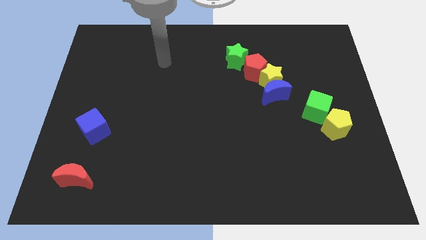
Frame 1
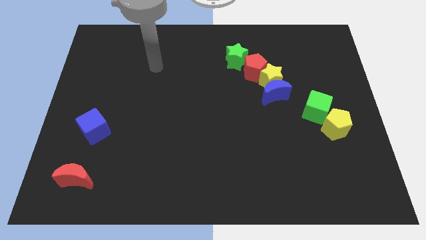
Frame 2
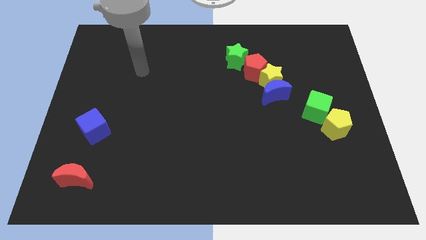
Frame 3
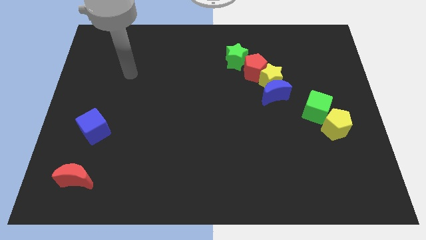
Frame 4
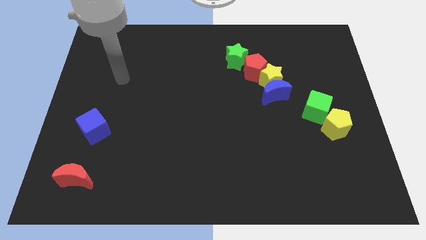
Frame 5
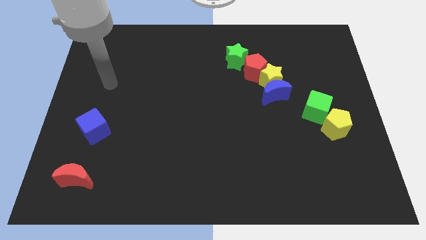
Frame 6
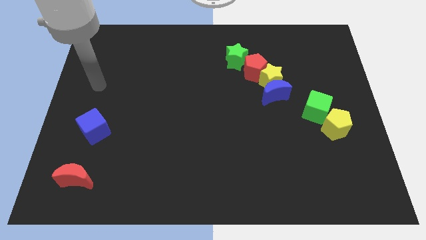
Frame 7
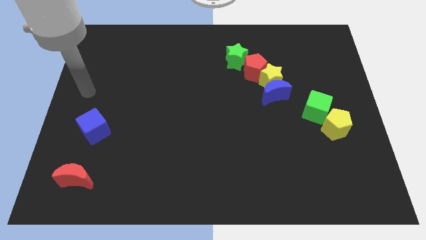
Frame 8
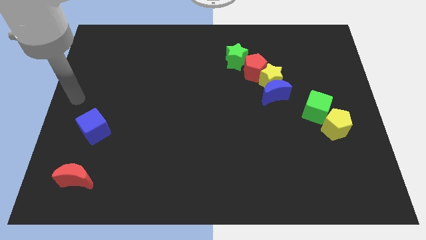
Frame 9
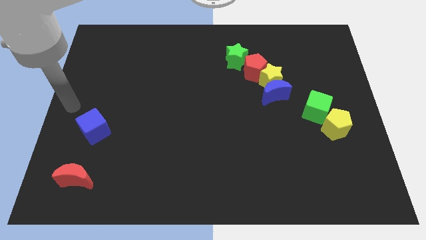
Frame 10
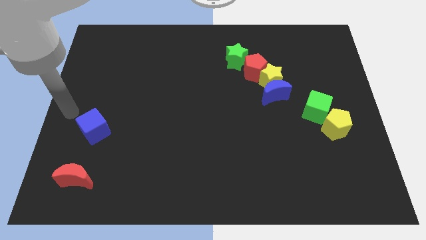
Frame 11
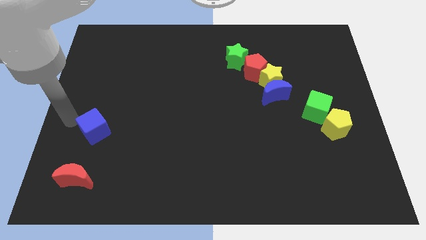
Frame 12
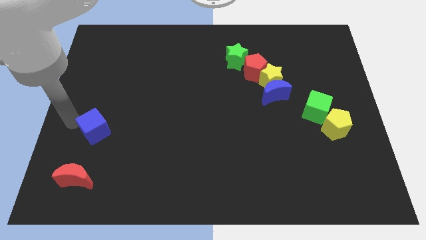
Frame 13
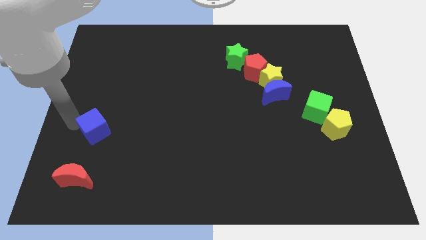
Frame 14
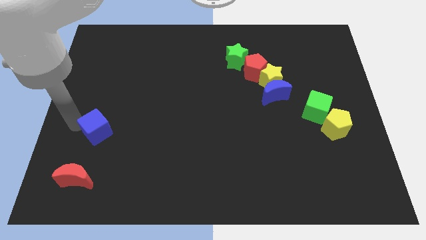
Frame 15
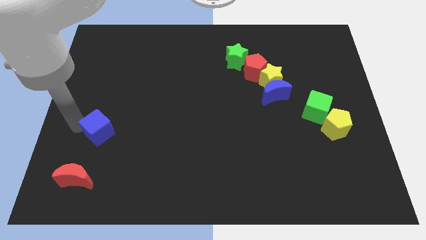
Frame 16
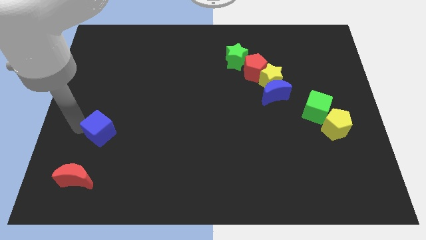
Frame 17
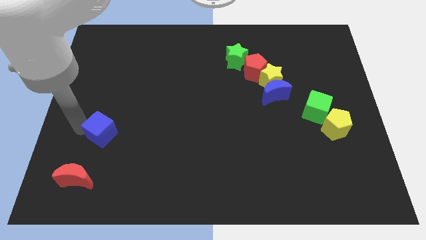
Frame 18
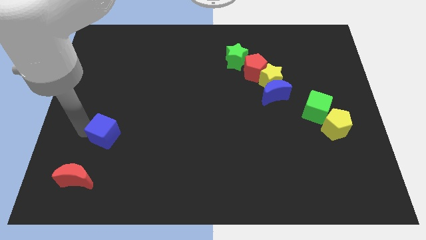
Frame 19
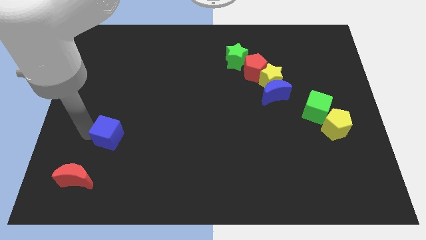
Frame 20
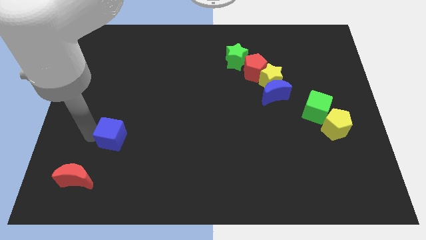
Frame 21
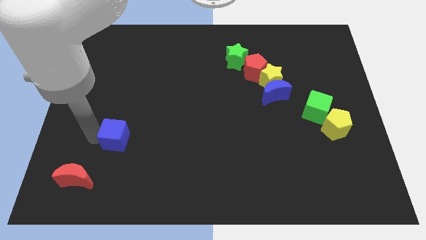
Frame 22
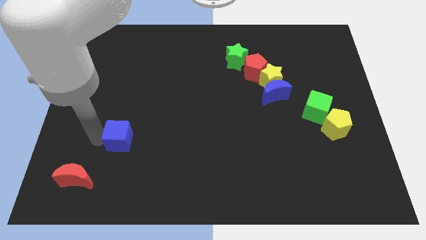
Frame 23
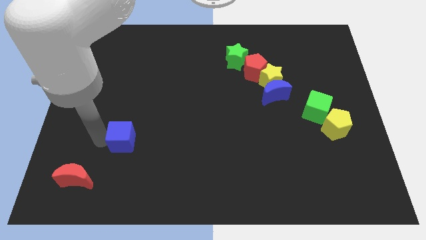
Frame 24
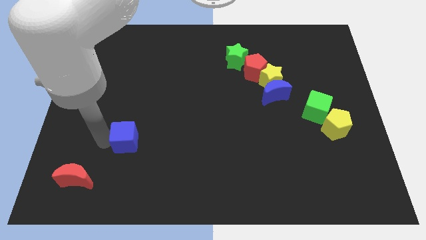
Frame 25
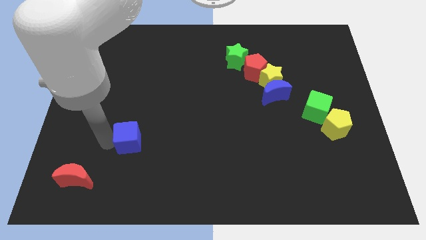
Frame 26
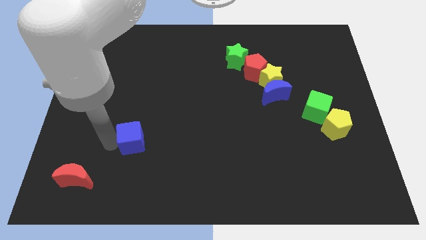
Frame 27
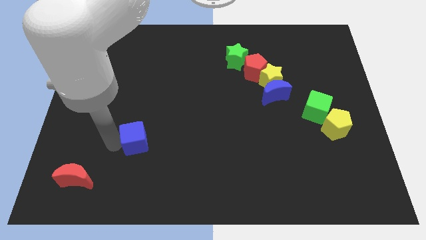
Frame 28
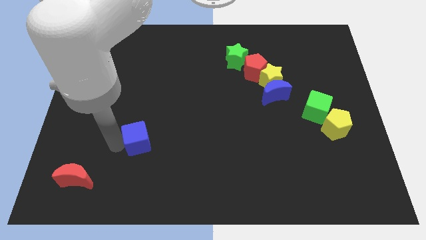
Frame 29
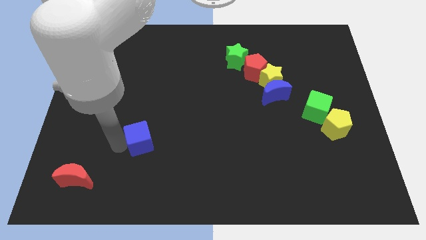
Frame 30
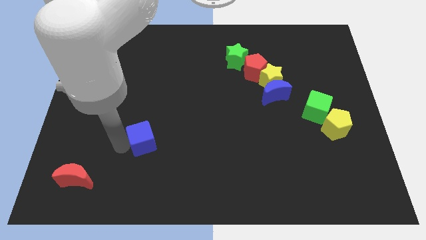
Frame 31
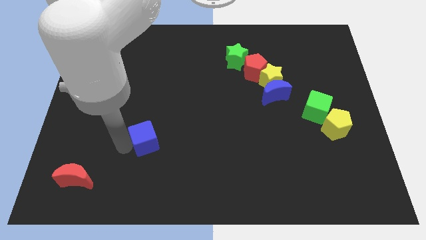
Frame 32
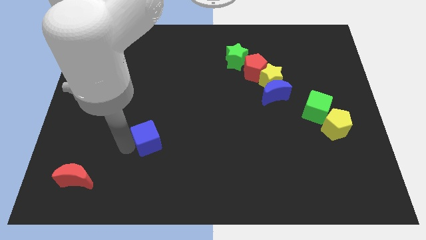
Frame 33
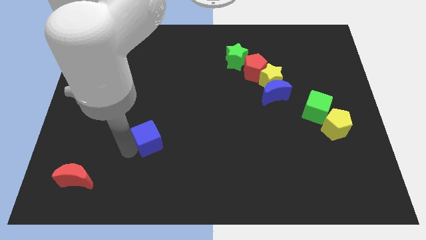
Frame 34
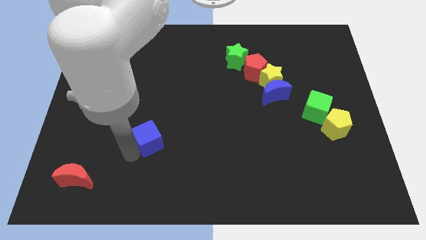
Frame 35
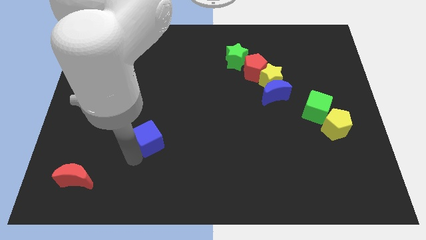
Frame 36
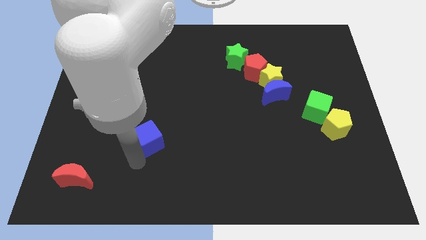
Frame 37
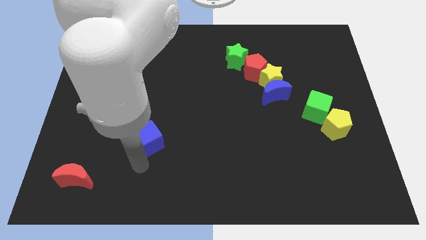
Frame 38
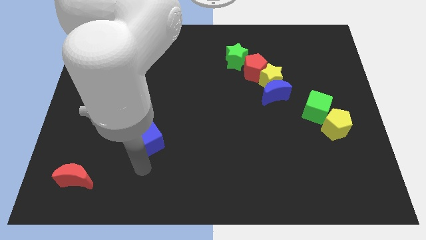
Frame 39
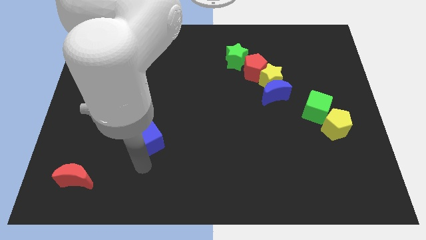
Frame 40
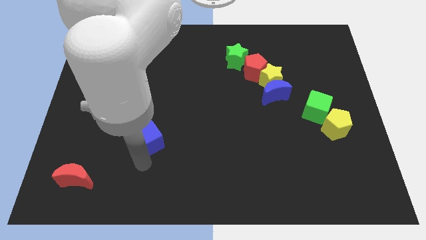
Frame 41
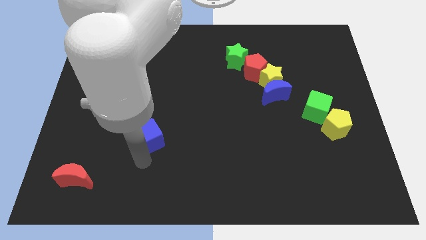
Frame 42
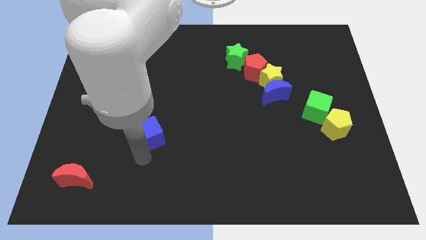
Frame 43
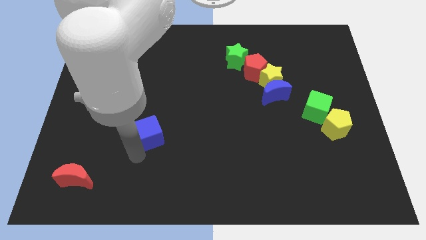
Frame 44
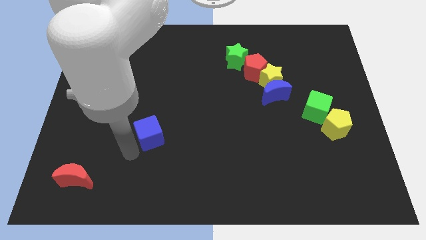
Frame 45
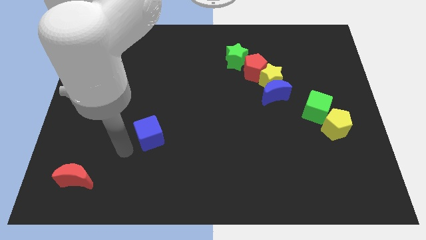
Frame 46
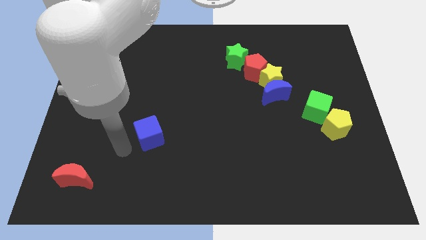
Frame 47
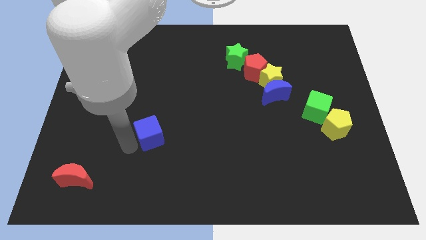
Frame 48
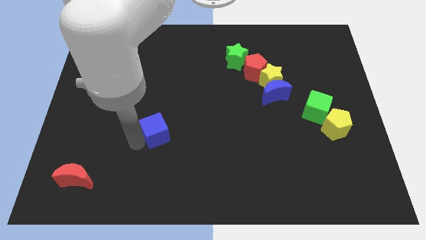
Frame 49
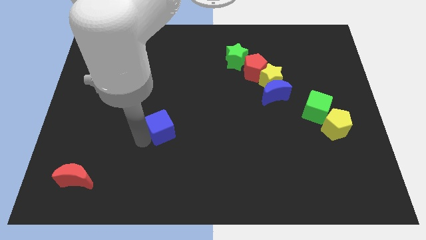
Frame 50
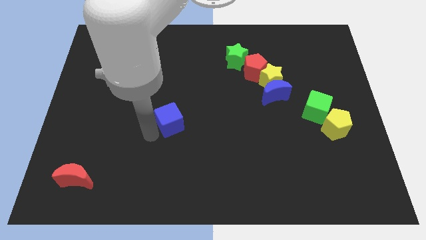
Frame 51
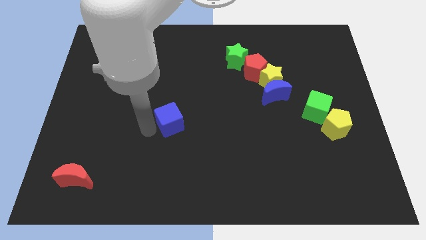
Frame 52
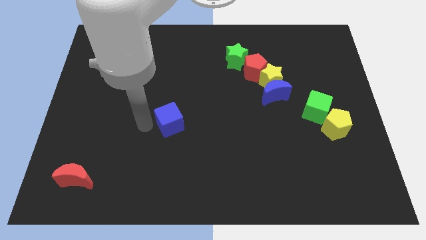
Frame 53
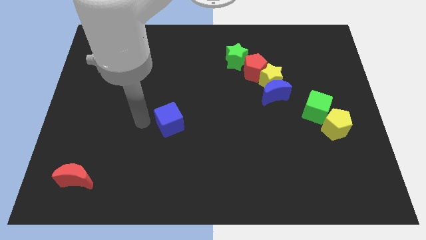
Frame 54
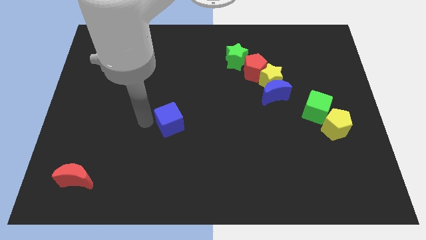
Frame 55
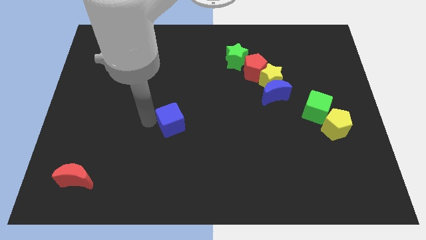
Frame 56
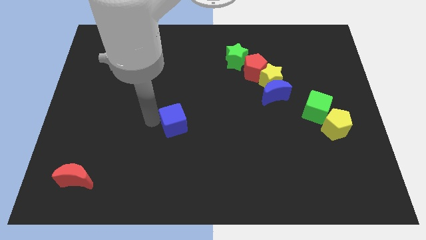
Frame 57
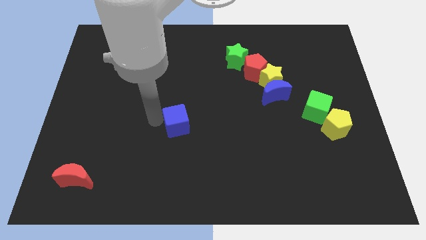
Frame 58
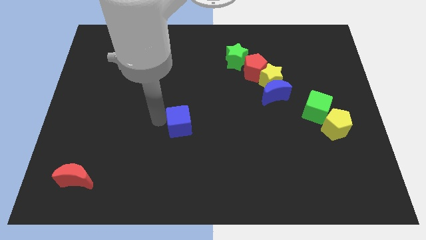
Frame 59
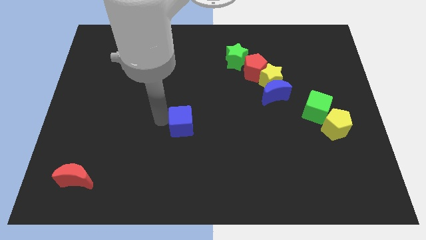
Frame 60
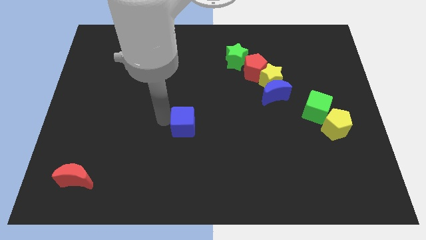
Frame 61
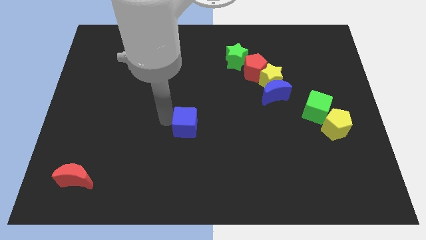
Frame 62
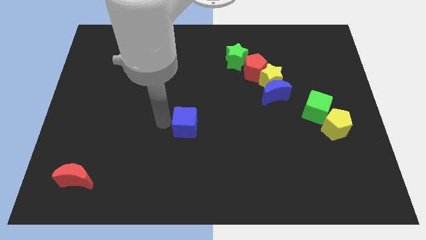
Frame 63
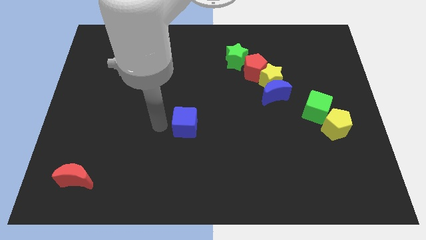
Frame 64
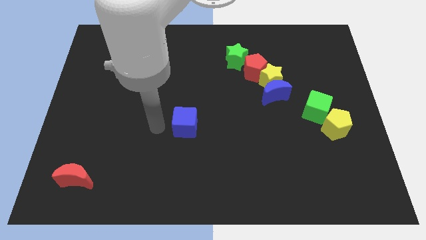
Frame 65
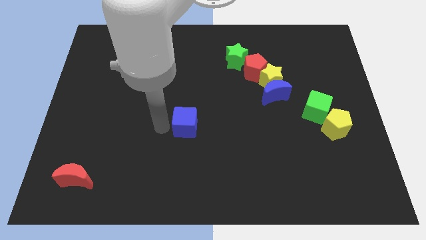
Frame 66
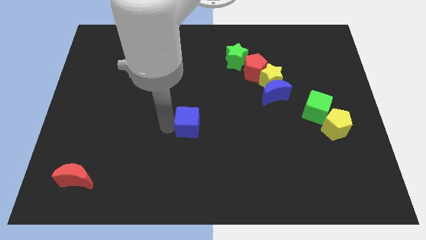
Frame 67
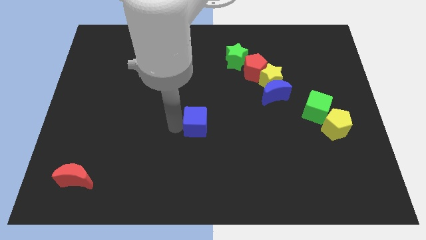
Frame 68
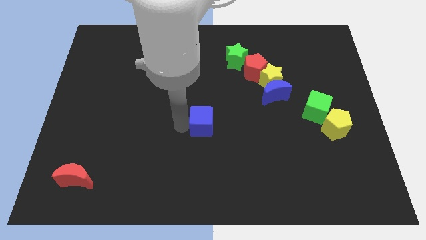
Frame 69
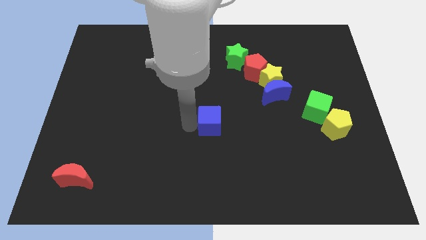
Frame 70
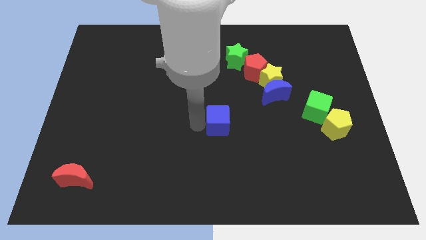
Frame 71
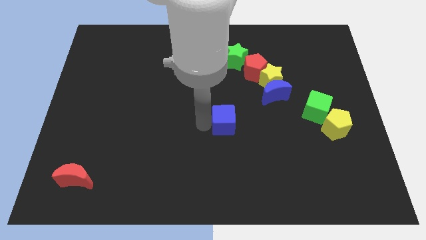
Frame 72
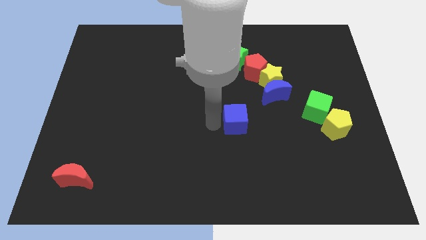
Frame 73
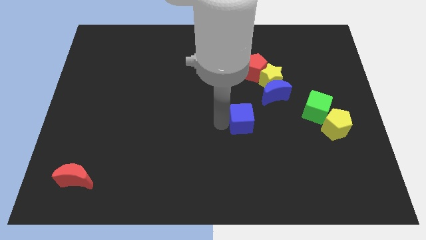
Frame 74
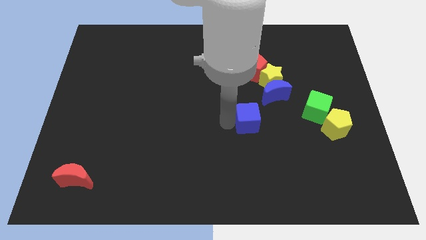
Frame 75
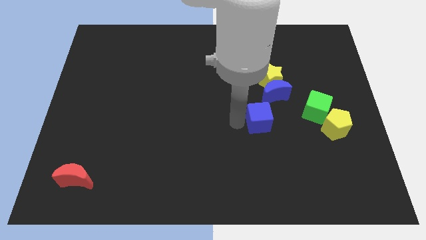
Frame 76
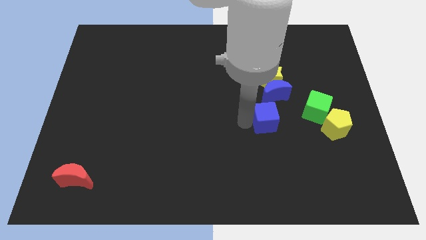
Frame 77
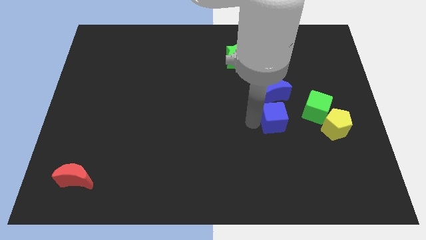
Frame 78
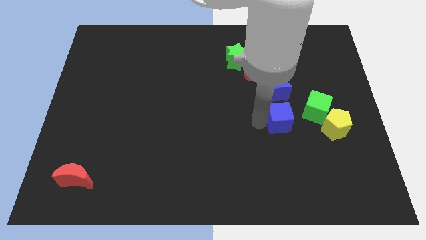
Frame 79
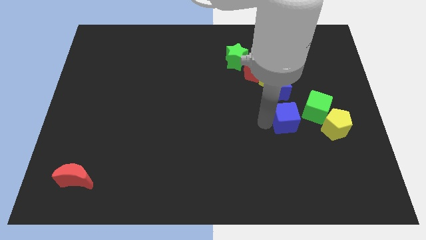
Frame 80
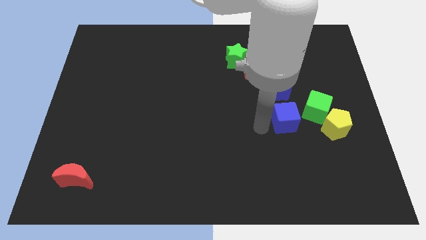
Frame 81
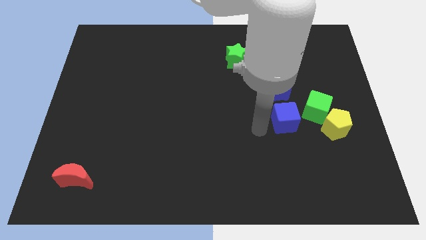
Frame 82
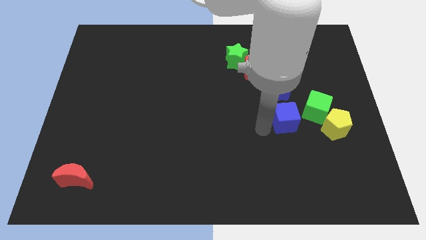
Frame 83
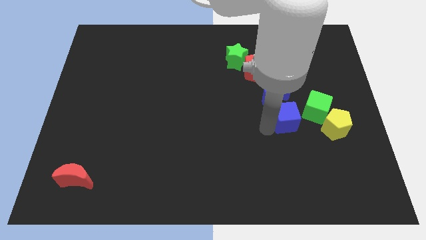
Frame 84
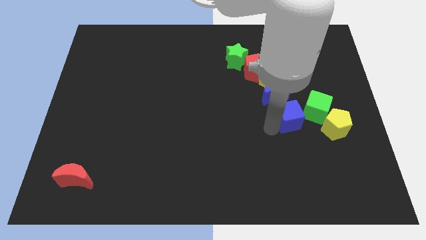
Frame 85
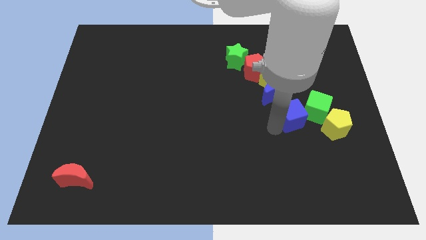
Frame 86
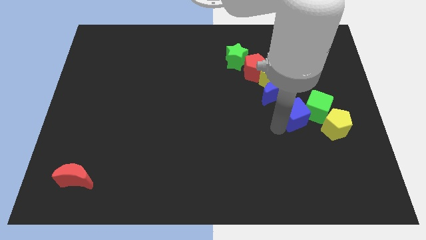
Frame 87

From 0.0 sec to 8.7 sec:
put the blue cube close to the green cube
